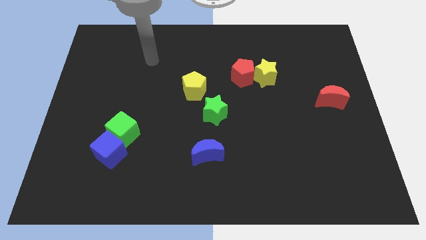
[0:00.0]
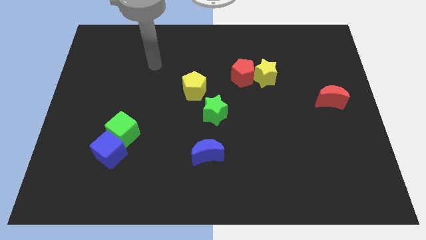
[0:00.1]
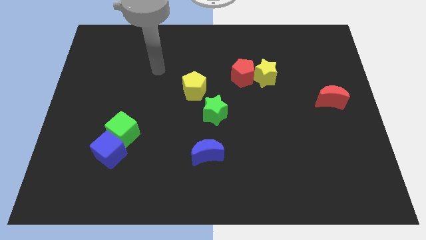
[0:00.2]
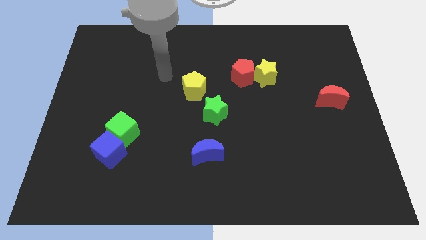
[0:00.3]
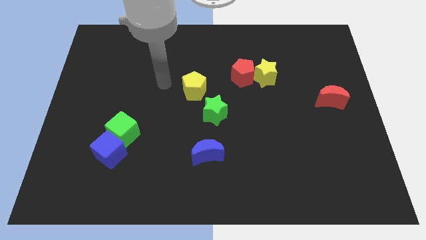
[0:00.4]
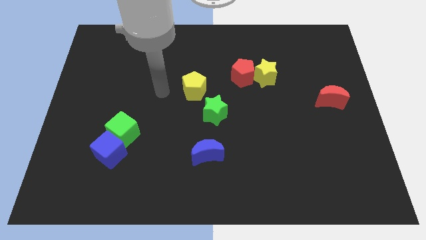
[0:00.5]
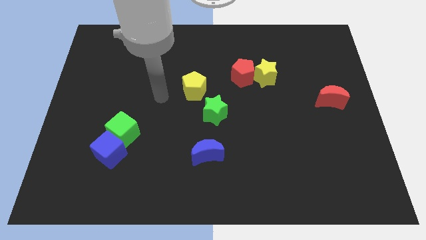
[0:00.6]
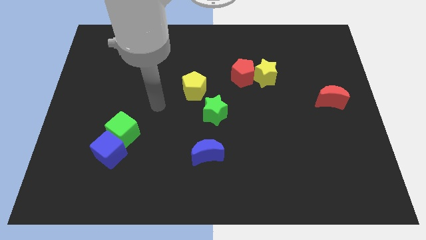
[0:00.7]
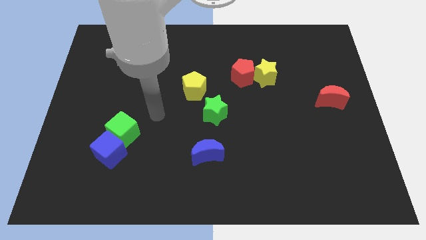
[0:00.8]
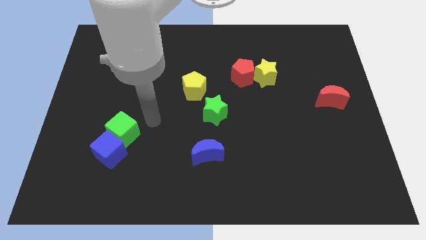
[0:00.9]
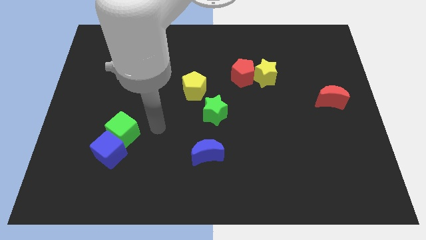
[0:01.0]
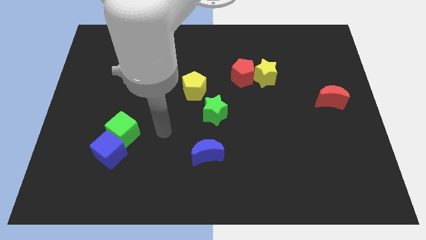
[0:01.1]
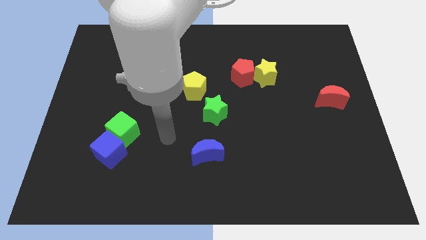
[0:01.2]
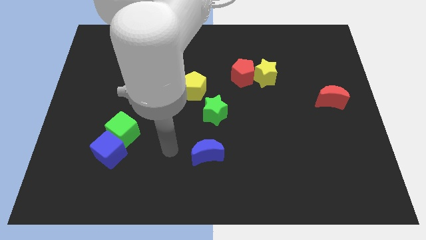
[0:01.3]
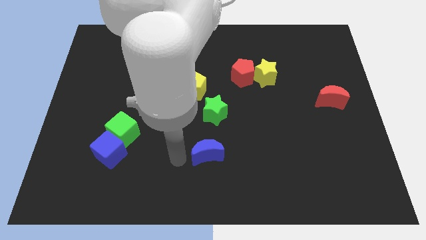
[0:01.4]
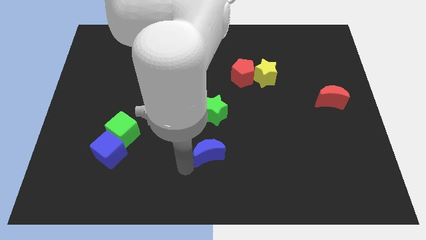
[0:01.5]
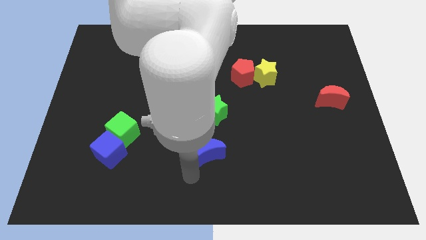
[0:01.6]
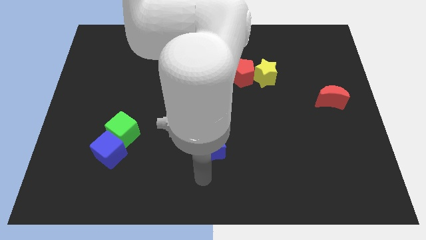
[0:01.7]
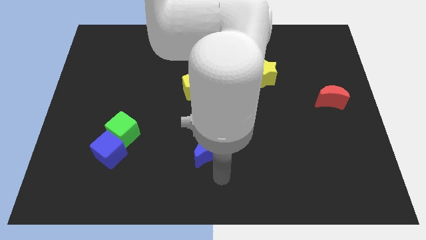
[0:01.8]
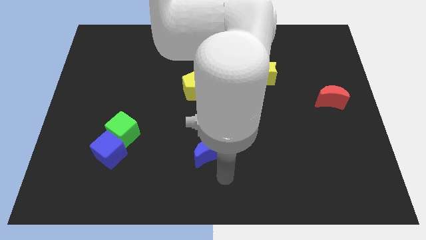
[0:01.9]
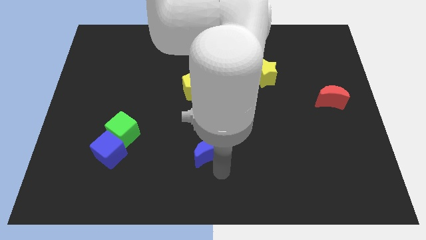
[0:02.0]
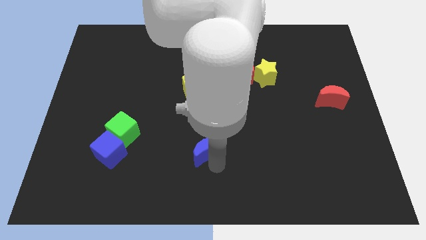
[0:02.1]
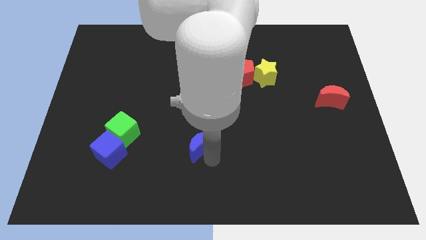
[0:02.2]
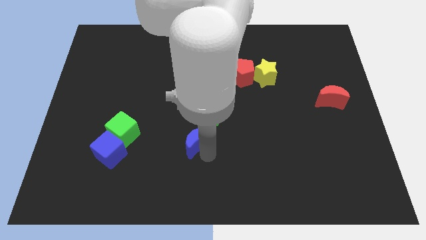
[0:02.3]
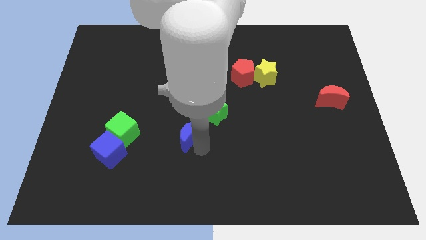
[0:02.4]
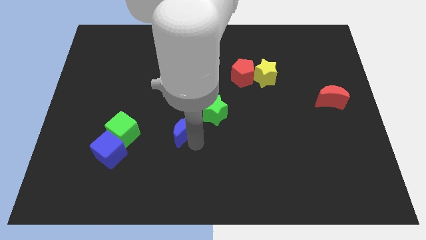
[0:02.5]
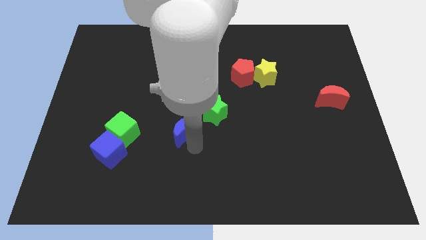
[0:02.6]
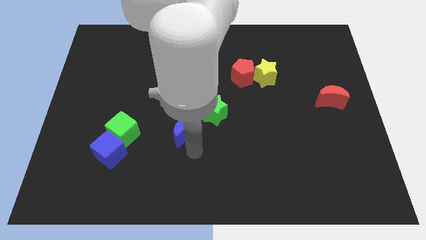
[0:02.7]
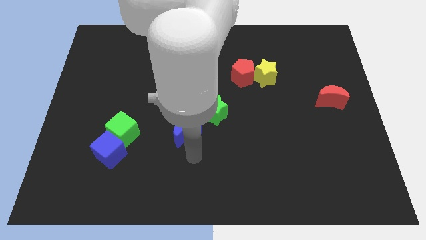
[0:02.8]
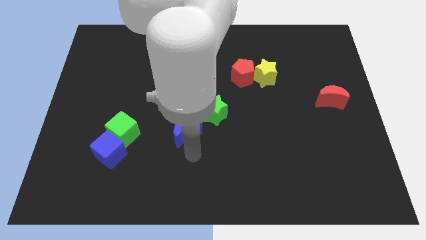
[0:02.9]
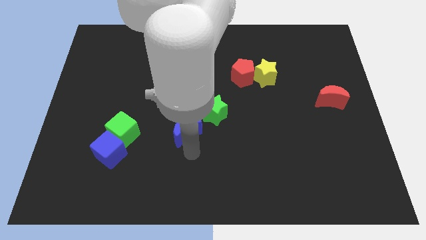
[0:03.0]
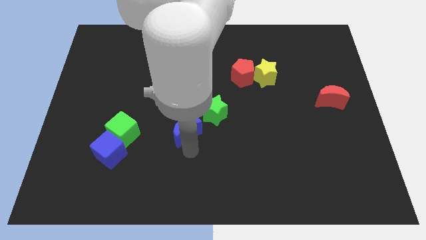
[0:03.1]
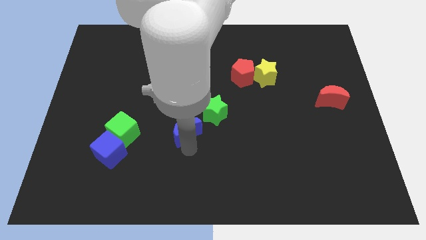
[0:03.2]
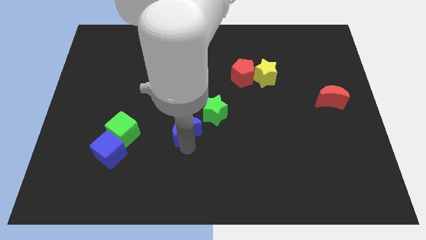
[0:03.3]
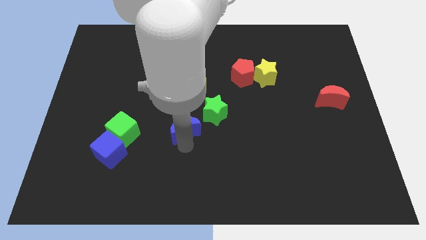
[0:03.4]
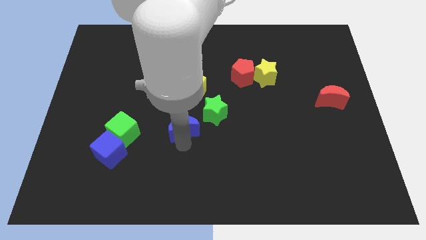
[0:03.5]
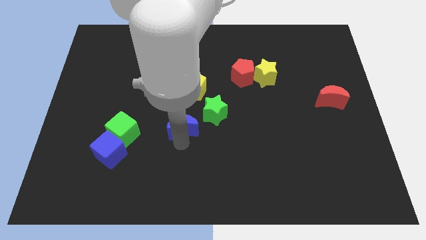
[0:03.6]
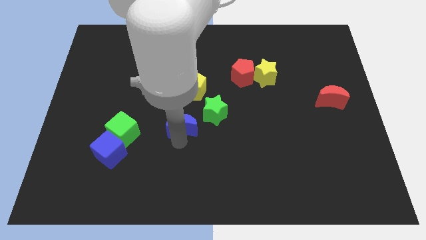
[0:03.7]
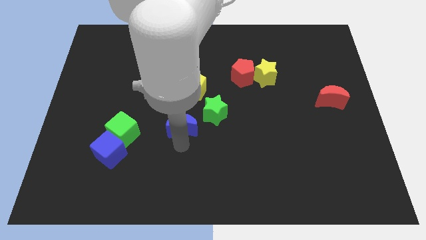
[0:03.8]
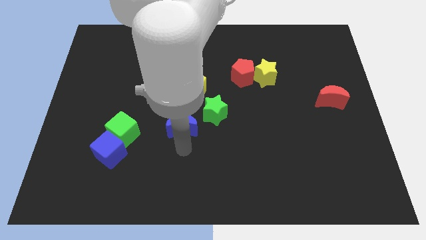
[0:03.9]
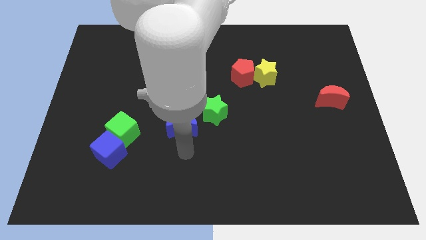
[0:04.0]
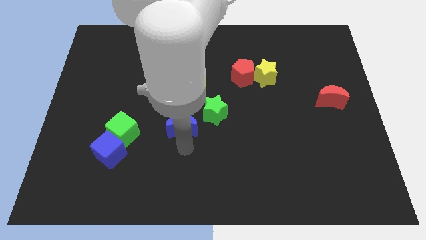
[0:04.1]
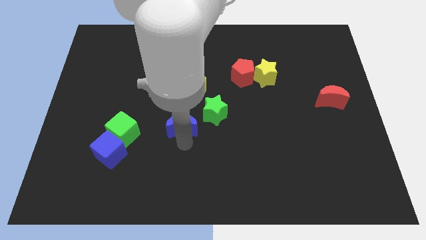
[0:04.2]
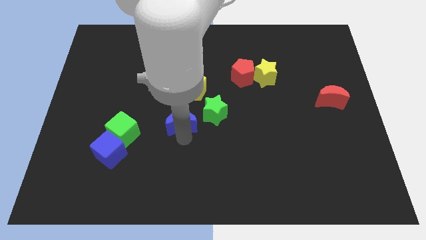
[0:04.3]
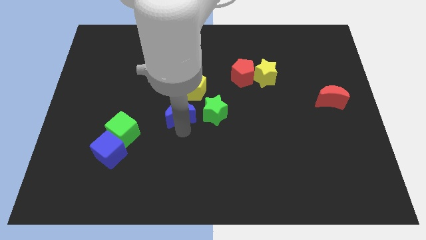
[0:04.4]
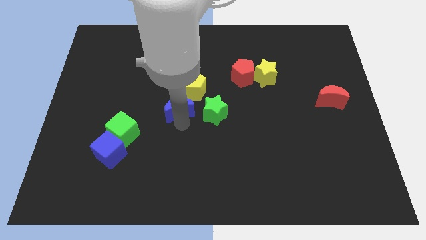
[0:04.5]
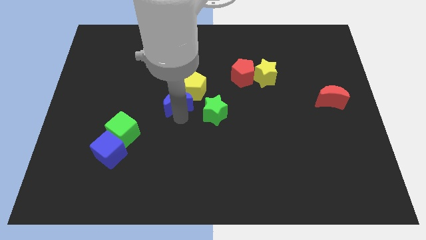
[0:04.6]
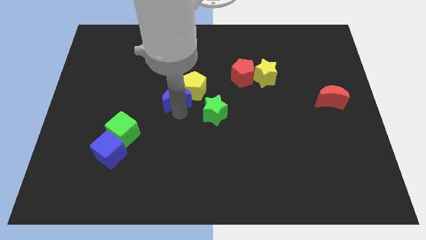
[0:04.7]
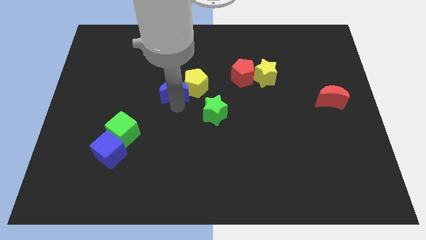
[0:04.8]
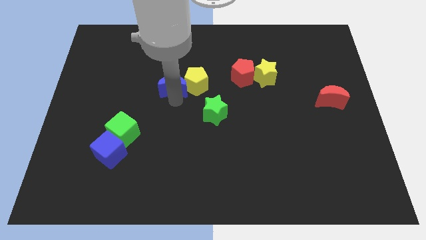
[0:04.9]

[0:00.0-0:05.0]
push the blue moon to the top left side of the yellow pentagon

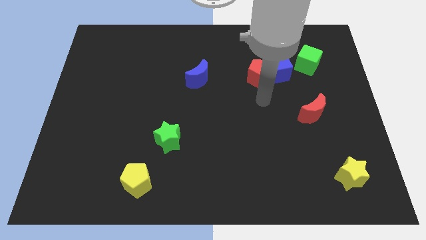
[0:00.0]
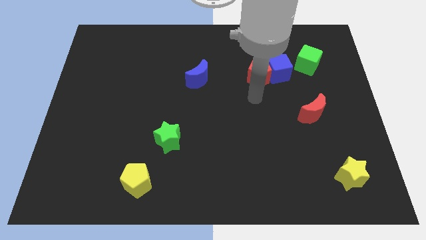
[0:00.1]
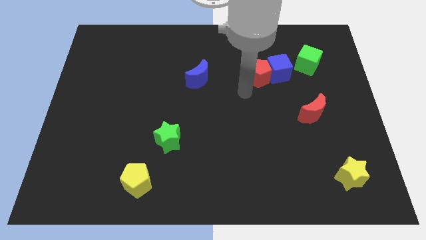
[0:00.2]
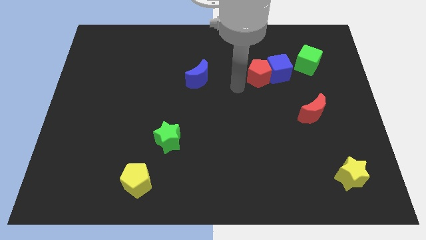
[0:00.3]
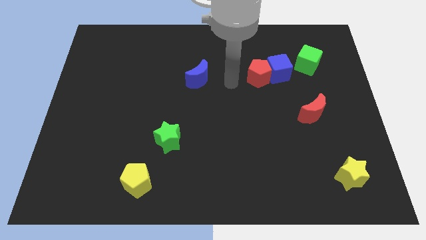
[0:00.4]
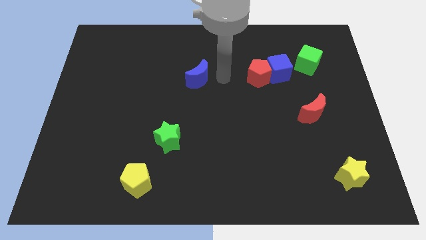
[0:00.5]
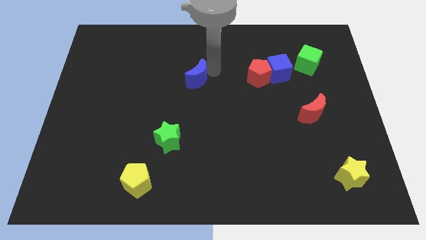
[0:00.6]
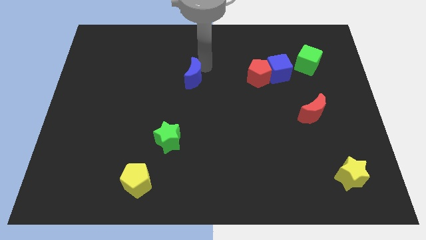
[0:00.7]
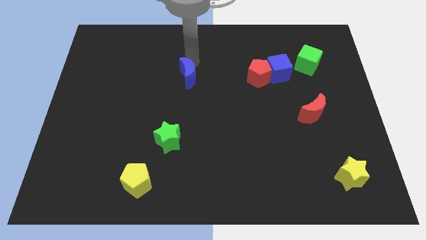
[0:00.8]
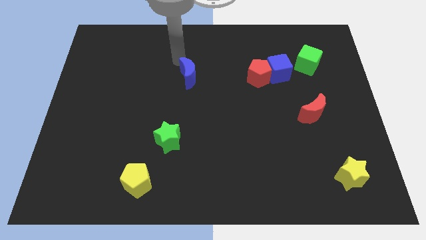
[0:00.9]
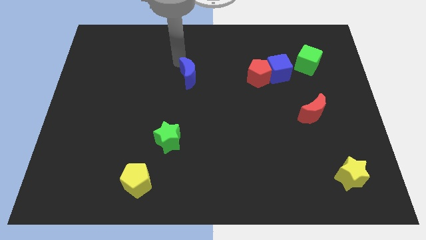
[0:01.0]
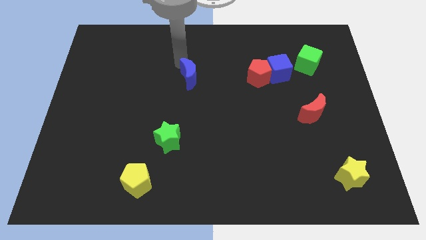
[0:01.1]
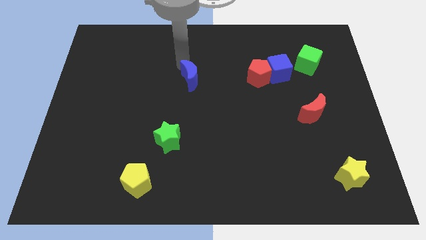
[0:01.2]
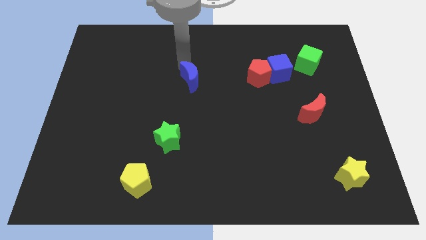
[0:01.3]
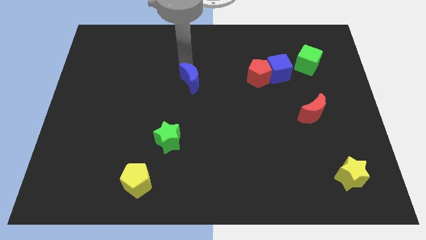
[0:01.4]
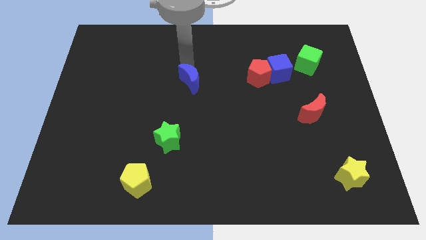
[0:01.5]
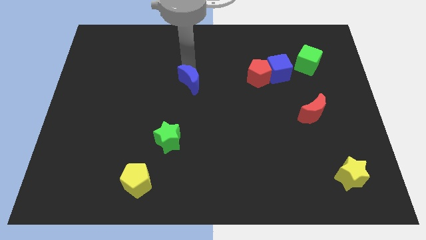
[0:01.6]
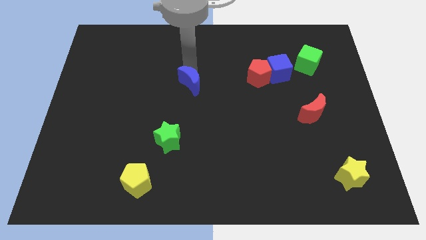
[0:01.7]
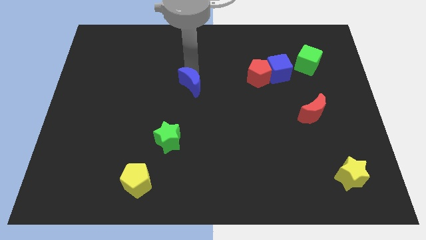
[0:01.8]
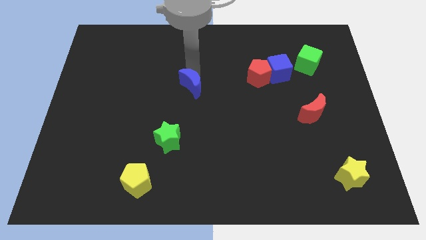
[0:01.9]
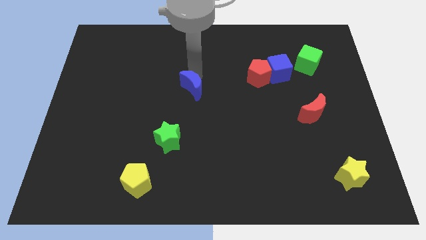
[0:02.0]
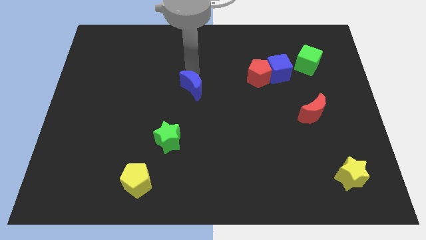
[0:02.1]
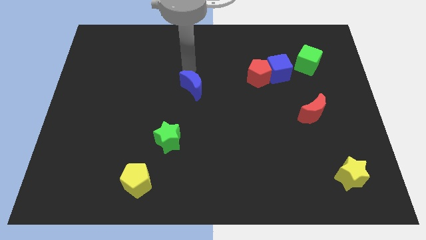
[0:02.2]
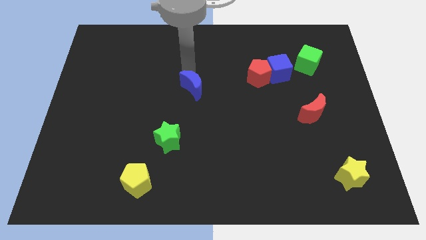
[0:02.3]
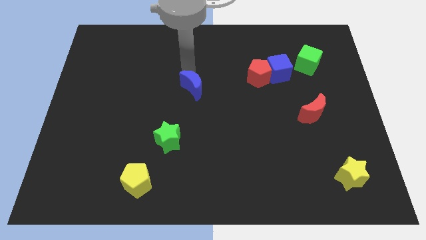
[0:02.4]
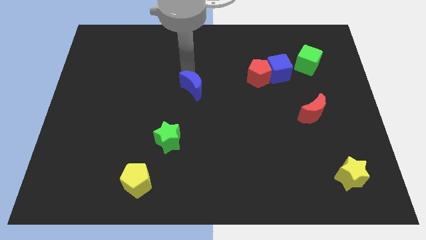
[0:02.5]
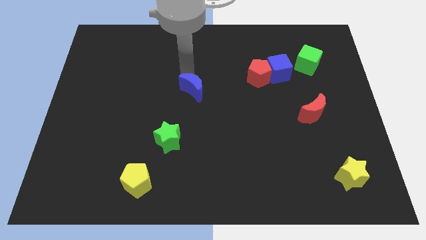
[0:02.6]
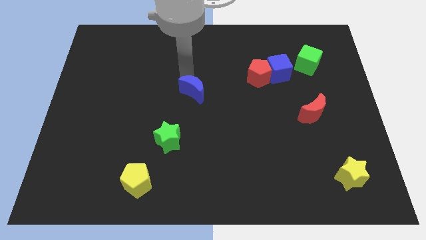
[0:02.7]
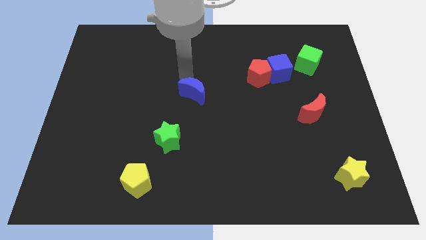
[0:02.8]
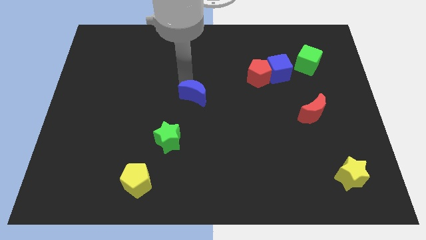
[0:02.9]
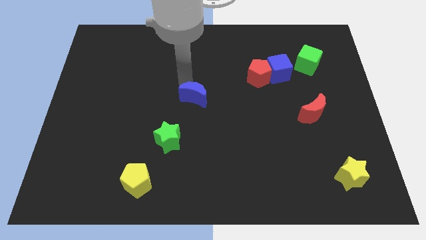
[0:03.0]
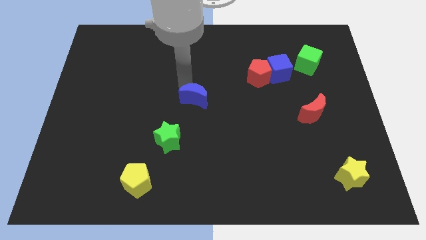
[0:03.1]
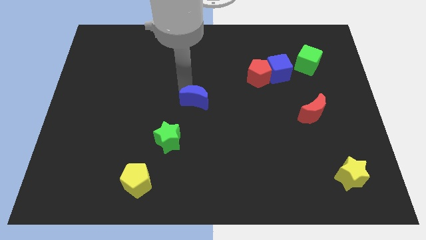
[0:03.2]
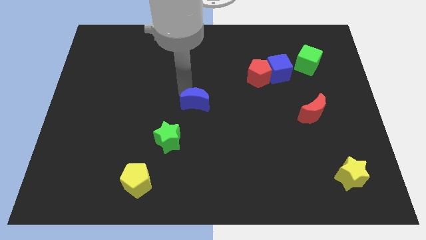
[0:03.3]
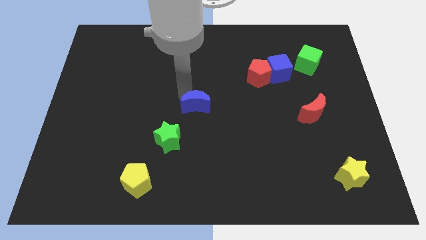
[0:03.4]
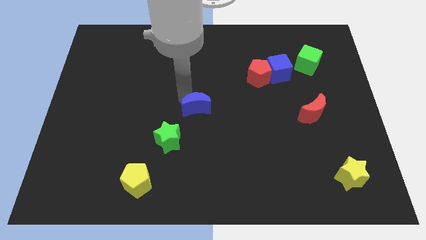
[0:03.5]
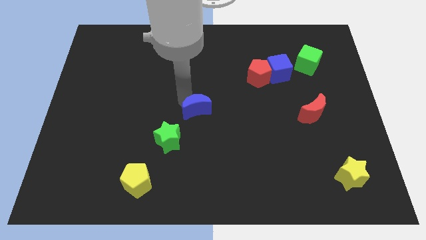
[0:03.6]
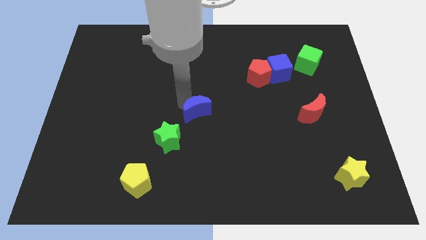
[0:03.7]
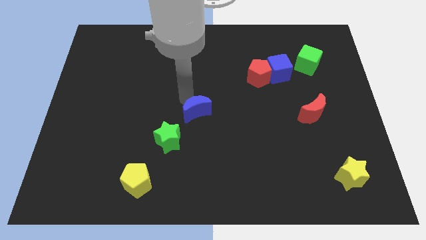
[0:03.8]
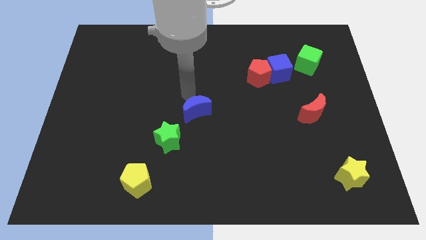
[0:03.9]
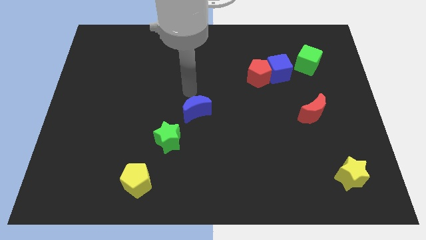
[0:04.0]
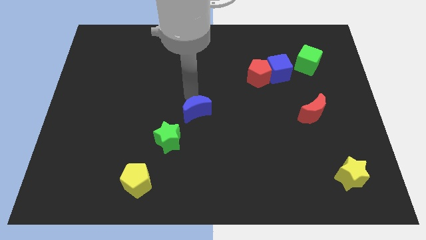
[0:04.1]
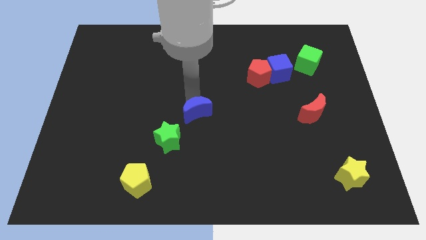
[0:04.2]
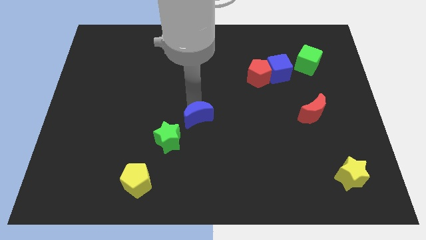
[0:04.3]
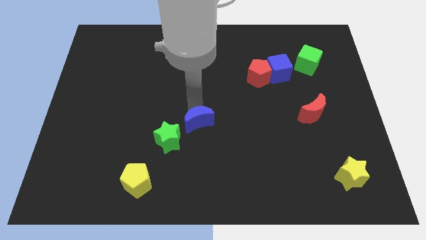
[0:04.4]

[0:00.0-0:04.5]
push the blue moon to the right side of the green star
